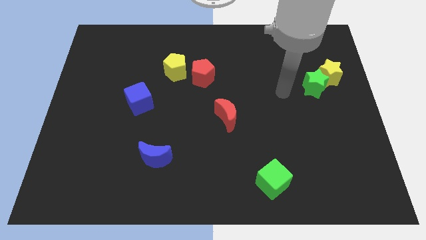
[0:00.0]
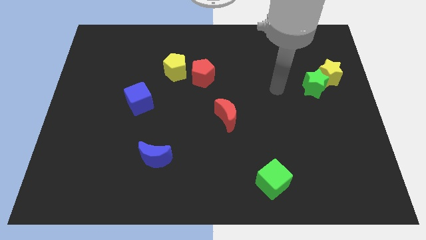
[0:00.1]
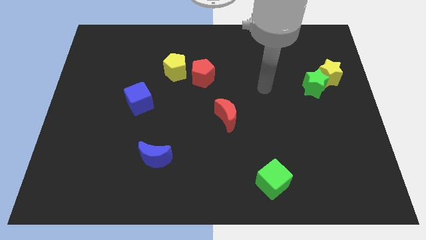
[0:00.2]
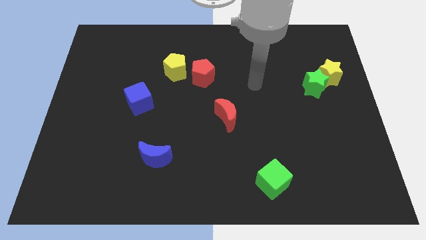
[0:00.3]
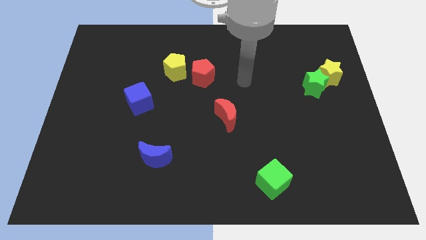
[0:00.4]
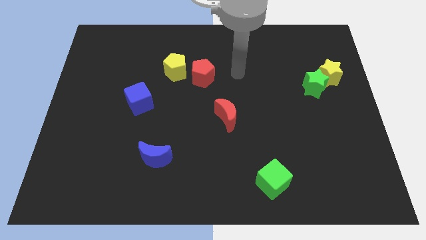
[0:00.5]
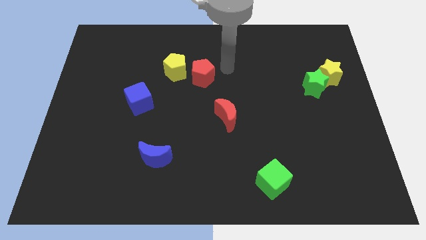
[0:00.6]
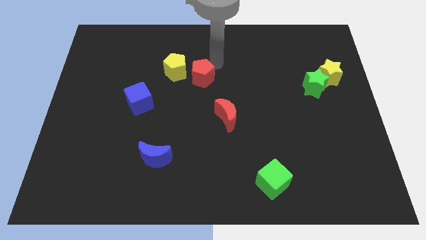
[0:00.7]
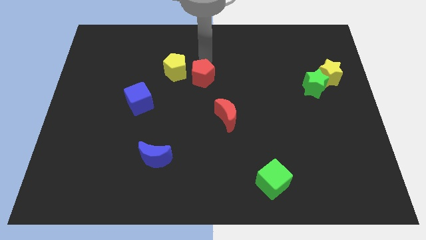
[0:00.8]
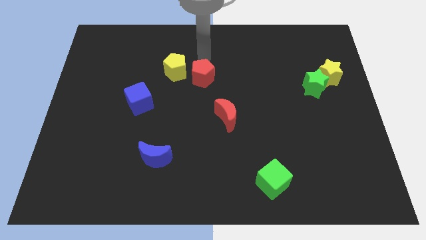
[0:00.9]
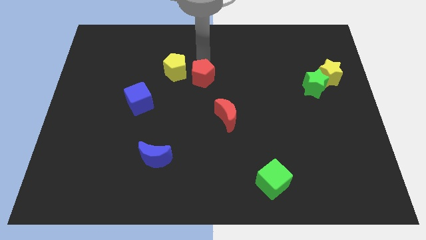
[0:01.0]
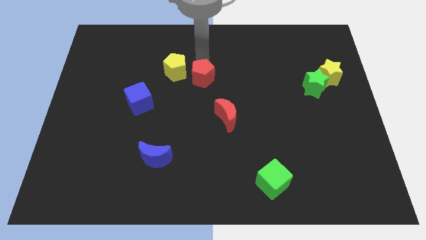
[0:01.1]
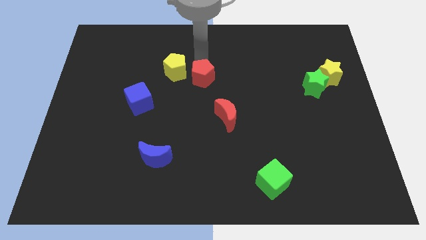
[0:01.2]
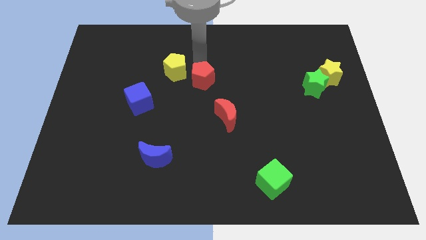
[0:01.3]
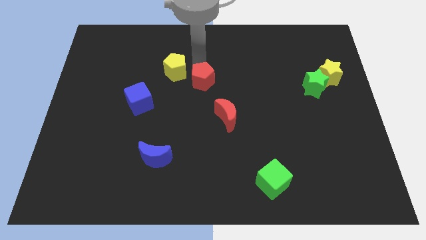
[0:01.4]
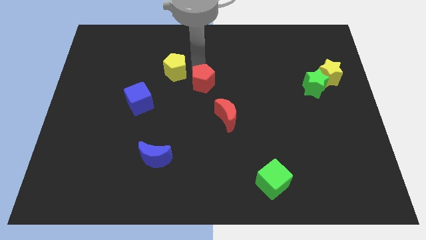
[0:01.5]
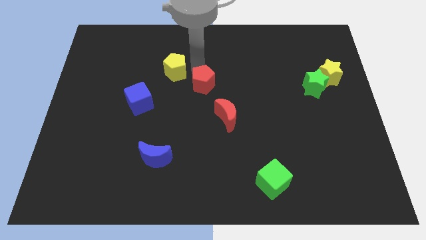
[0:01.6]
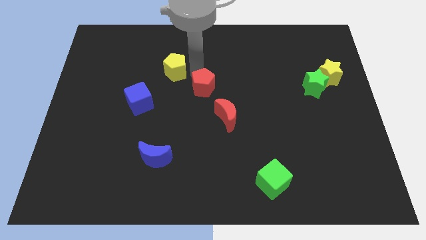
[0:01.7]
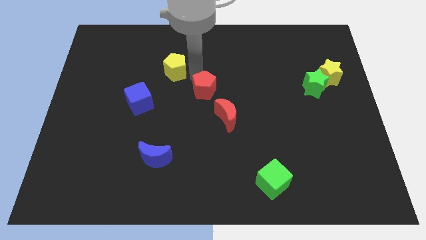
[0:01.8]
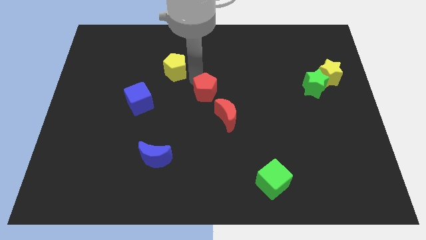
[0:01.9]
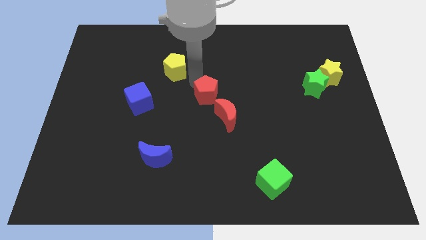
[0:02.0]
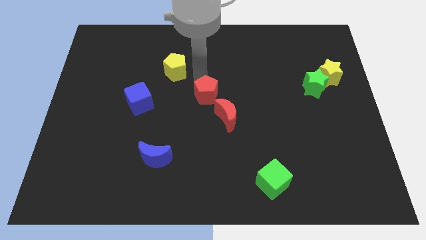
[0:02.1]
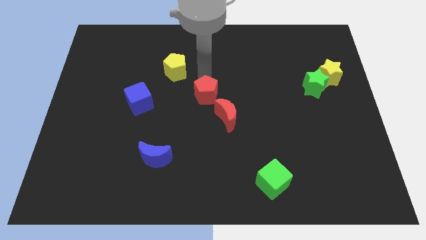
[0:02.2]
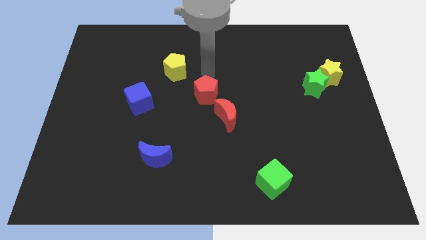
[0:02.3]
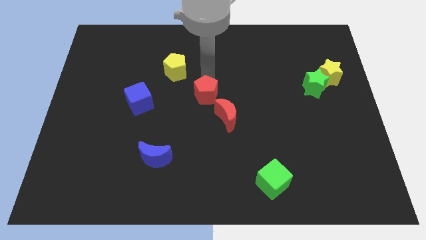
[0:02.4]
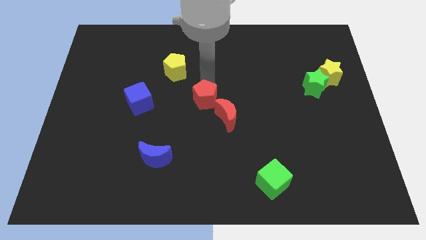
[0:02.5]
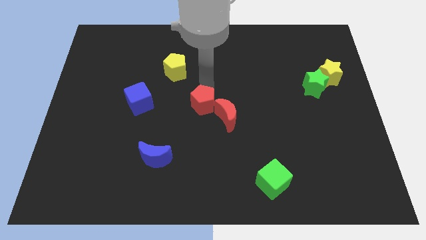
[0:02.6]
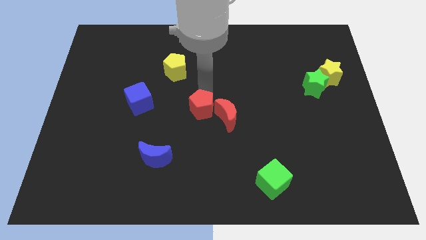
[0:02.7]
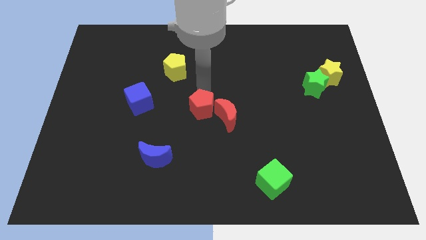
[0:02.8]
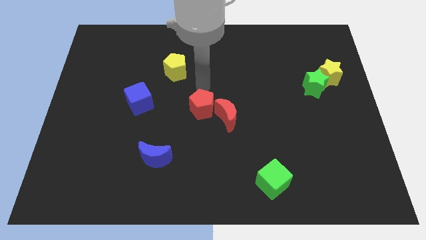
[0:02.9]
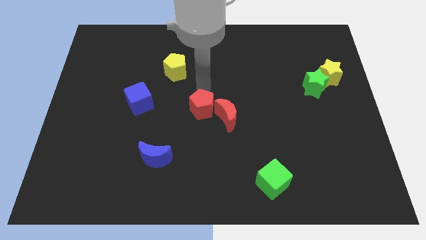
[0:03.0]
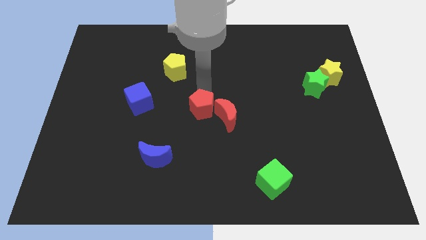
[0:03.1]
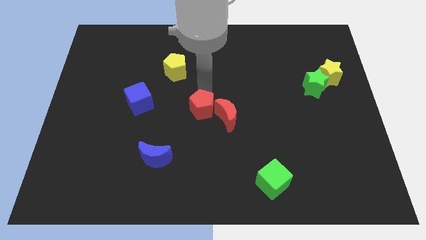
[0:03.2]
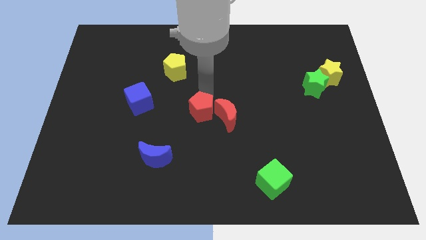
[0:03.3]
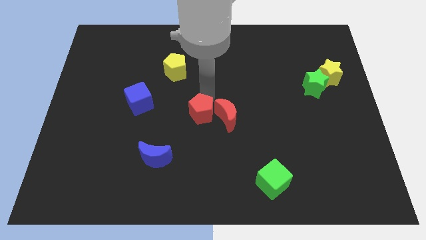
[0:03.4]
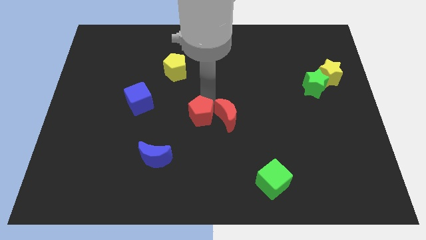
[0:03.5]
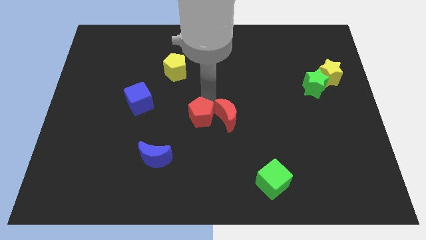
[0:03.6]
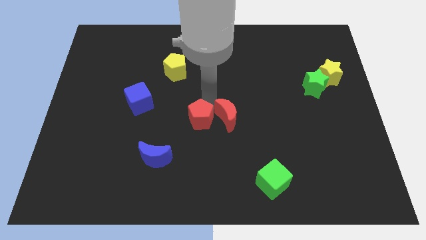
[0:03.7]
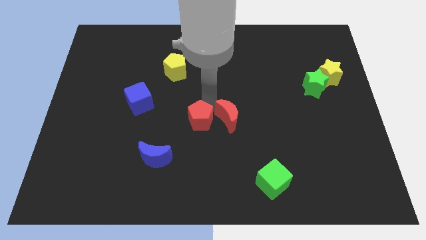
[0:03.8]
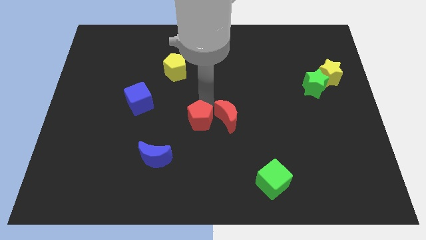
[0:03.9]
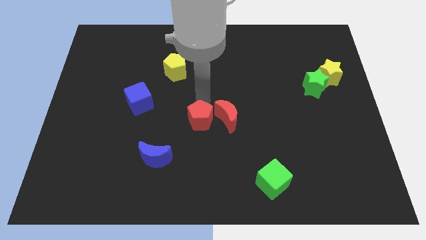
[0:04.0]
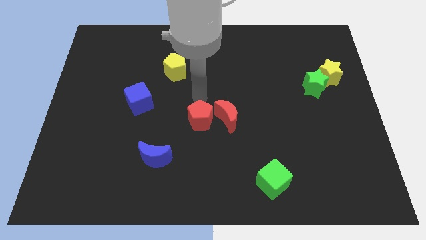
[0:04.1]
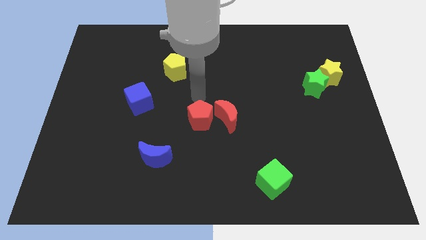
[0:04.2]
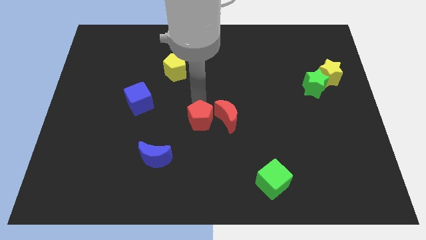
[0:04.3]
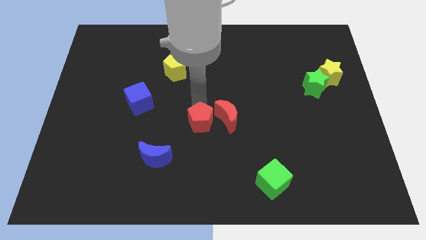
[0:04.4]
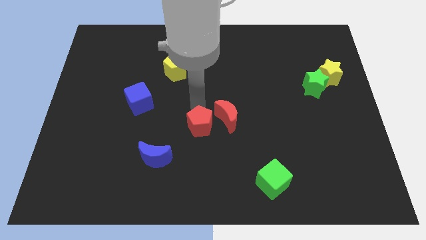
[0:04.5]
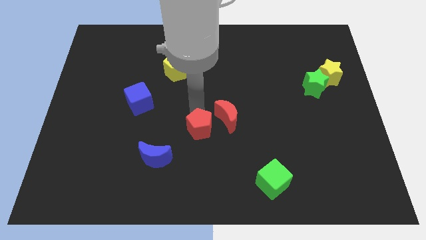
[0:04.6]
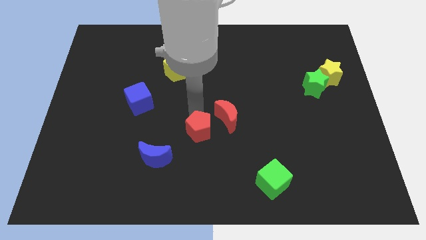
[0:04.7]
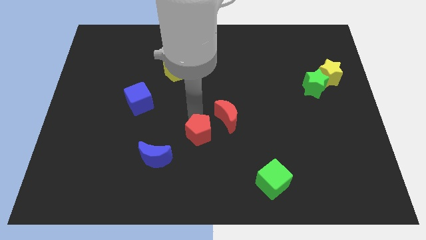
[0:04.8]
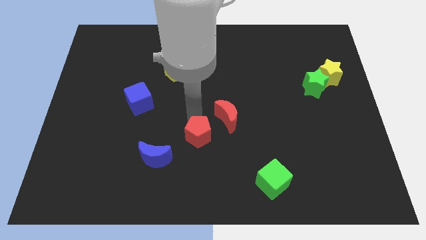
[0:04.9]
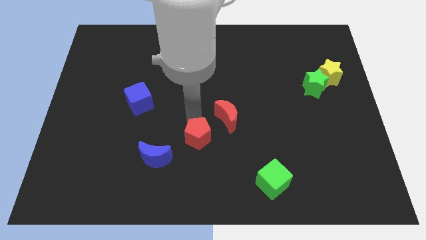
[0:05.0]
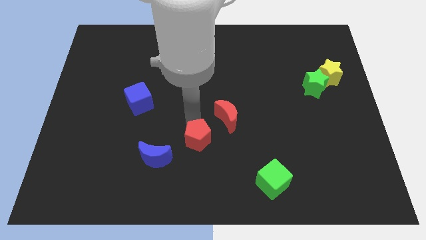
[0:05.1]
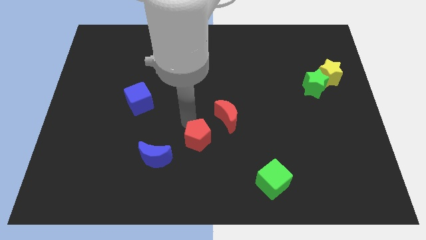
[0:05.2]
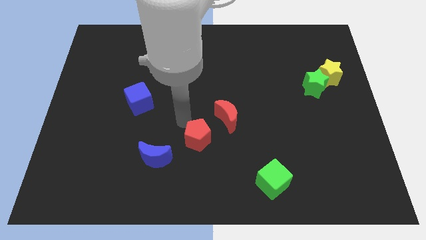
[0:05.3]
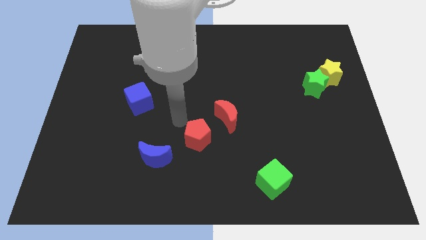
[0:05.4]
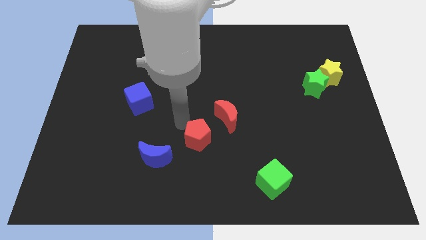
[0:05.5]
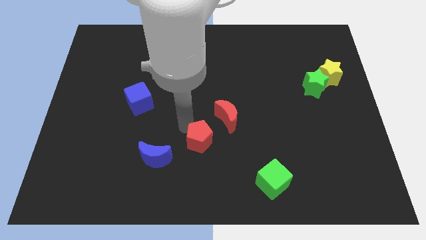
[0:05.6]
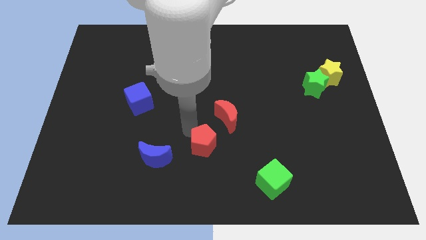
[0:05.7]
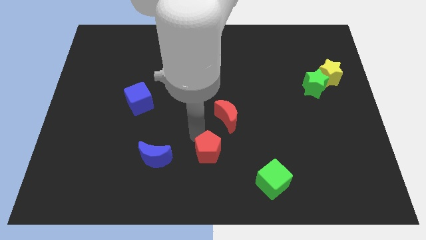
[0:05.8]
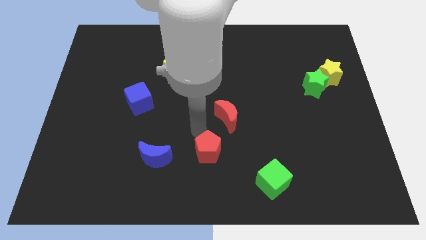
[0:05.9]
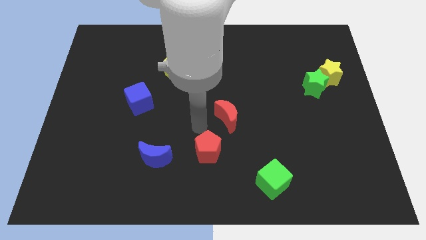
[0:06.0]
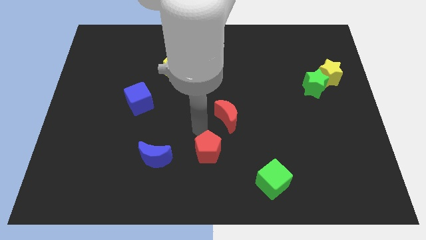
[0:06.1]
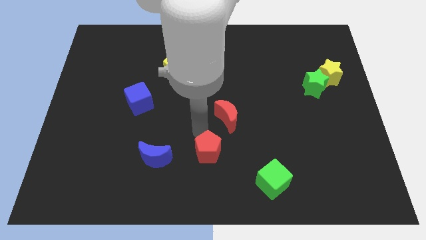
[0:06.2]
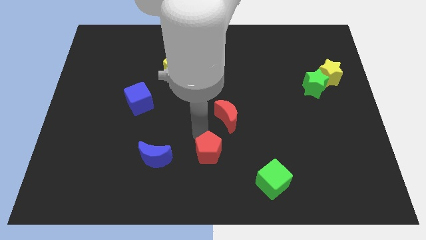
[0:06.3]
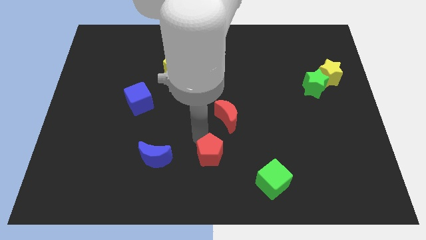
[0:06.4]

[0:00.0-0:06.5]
put the red pentagon to the bottom side
